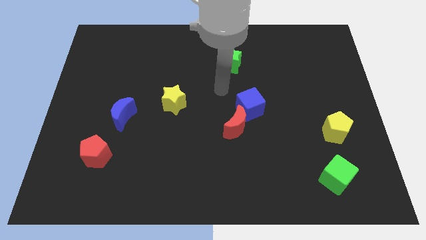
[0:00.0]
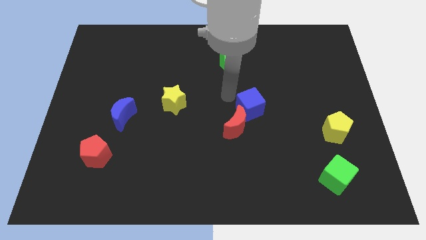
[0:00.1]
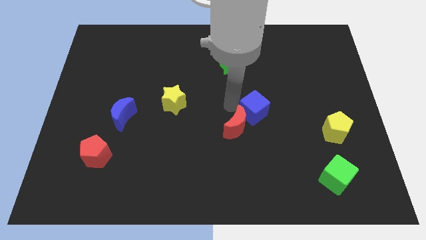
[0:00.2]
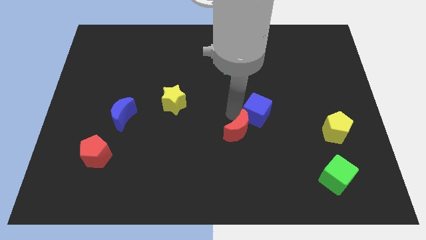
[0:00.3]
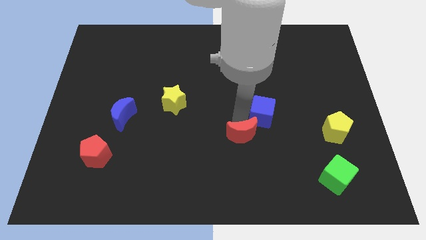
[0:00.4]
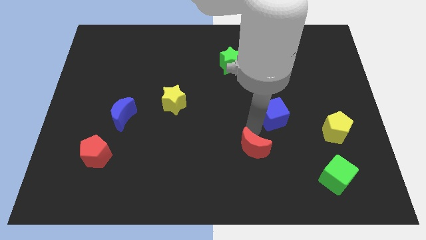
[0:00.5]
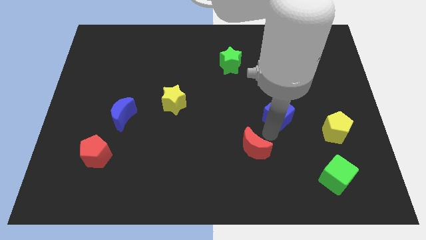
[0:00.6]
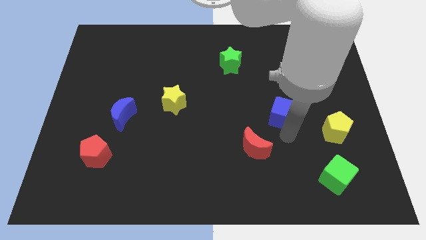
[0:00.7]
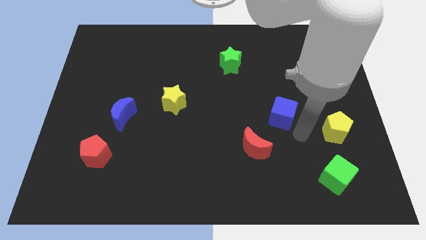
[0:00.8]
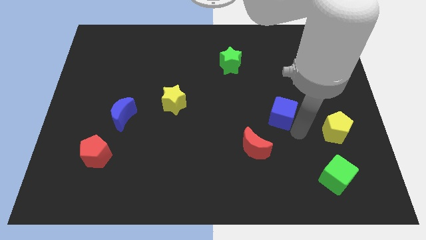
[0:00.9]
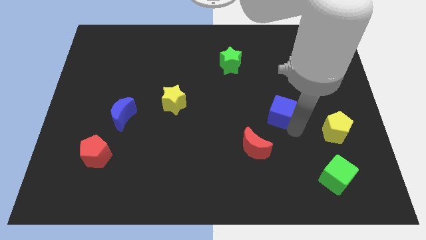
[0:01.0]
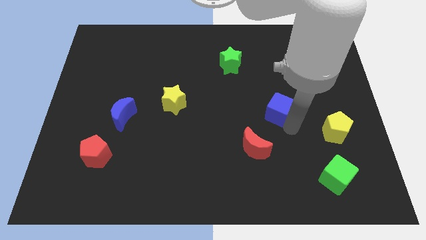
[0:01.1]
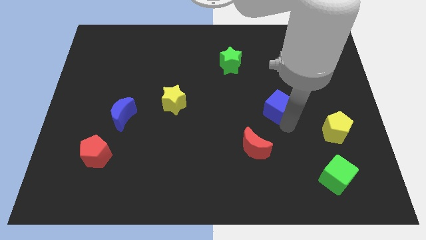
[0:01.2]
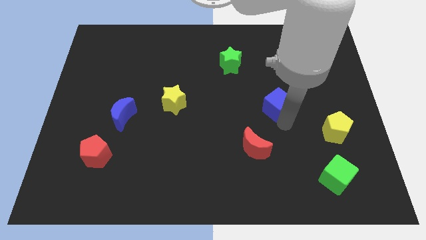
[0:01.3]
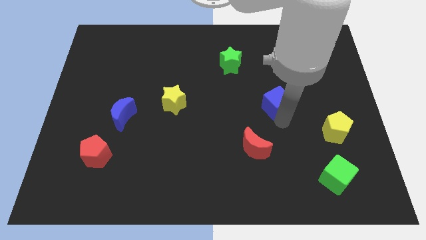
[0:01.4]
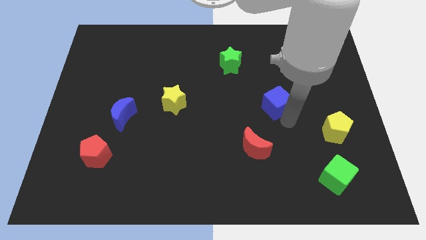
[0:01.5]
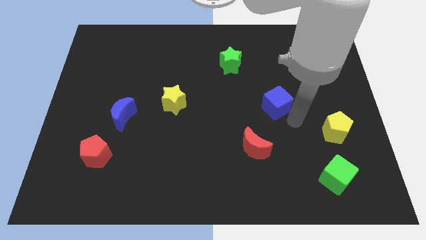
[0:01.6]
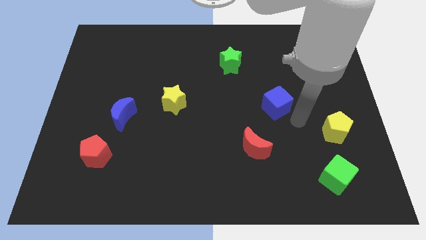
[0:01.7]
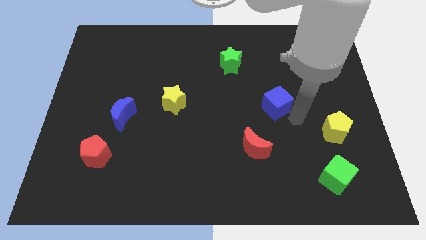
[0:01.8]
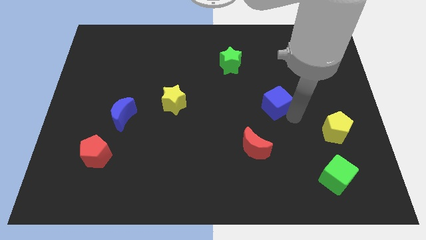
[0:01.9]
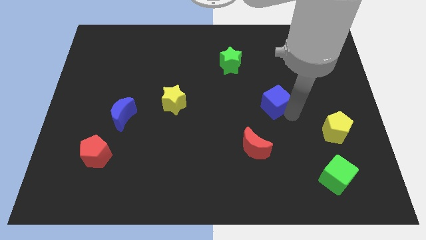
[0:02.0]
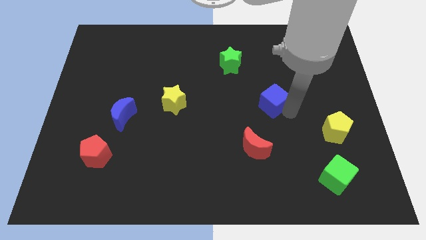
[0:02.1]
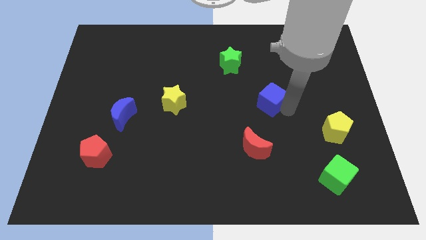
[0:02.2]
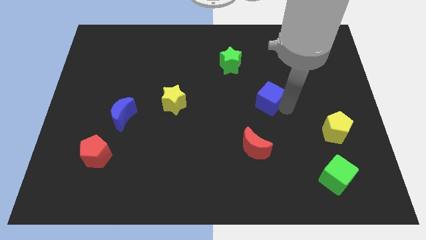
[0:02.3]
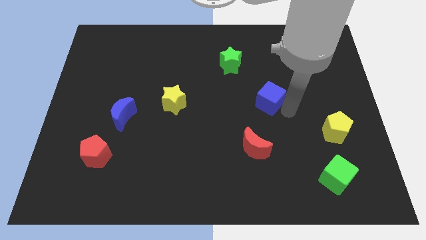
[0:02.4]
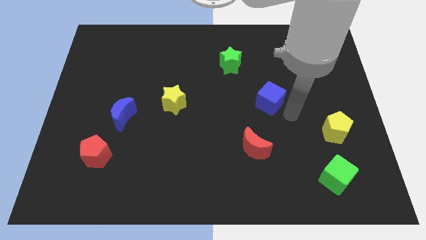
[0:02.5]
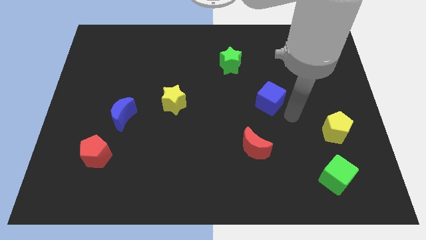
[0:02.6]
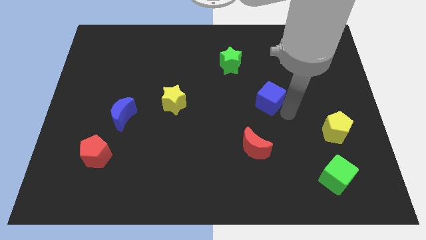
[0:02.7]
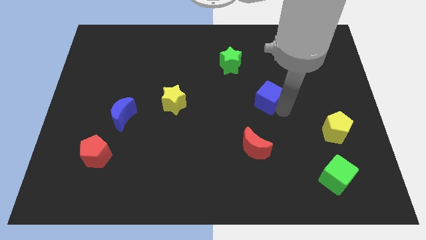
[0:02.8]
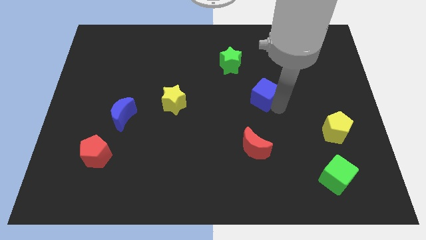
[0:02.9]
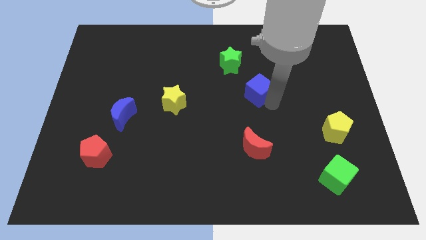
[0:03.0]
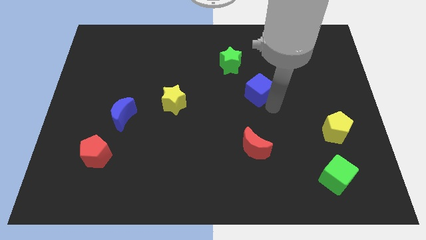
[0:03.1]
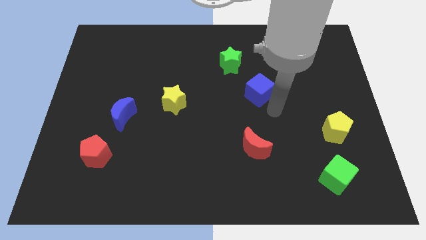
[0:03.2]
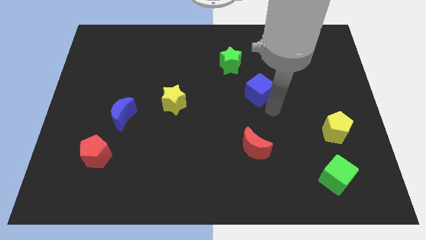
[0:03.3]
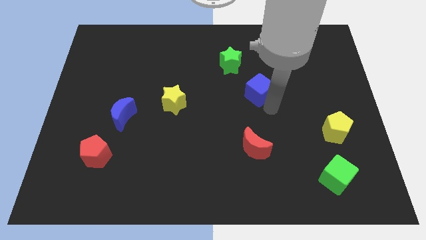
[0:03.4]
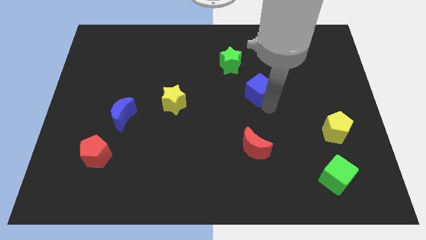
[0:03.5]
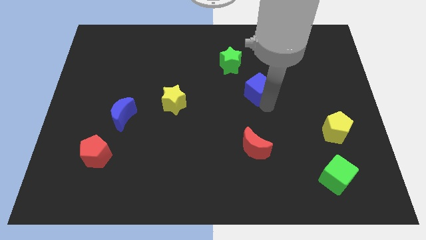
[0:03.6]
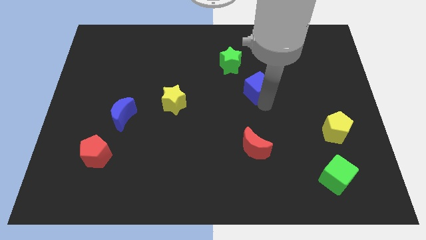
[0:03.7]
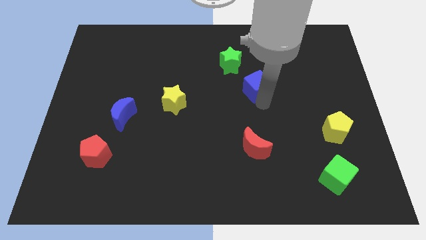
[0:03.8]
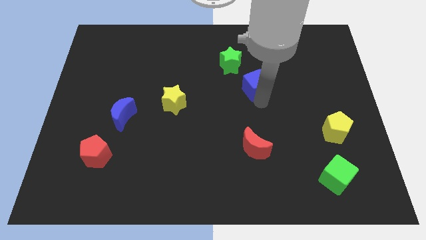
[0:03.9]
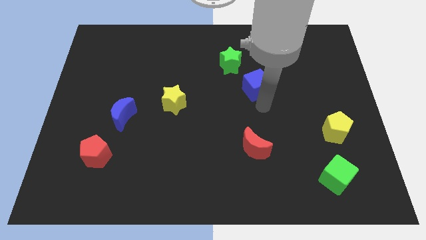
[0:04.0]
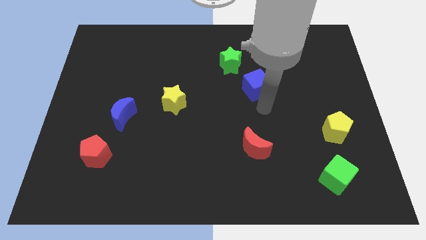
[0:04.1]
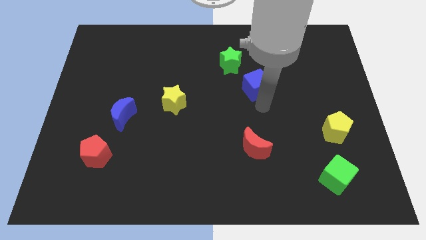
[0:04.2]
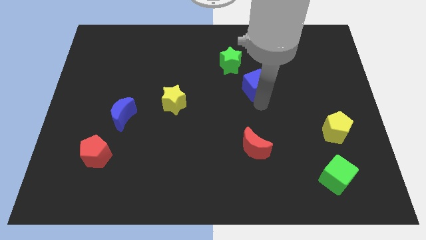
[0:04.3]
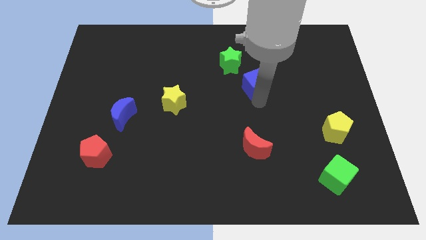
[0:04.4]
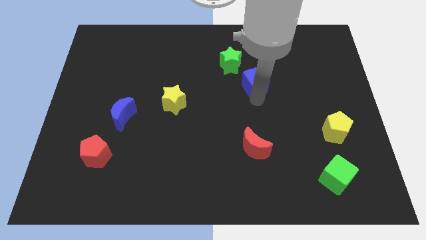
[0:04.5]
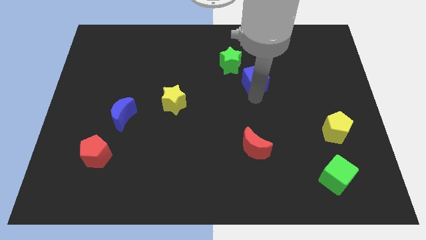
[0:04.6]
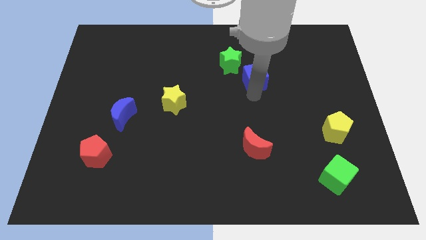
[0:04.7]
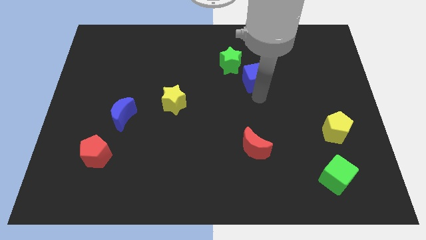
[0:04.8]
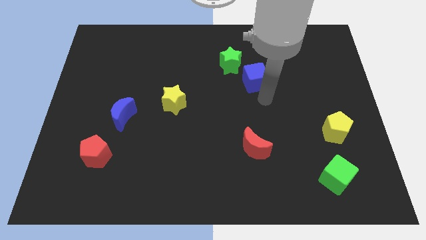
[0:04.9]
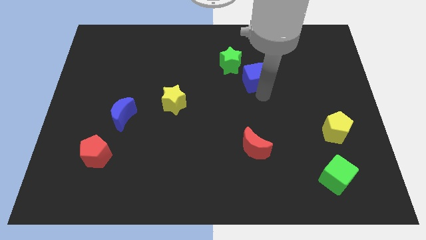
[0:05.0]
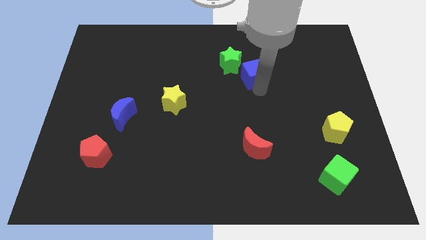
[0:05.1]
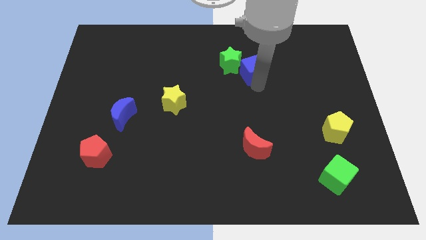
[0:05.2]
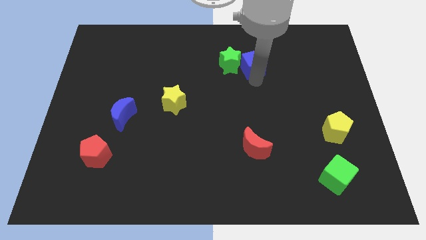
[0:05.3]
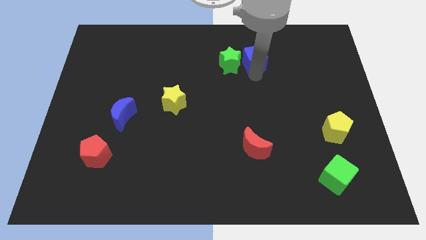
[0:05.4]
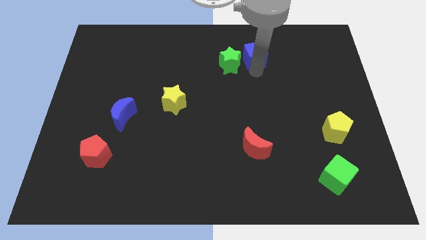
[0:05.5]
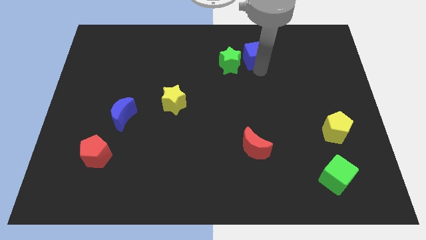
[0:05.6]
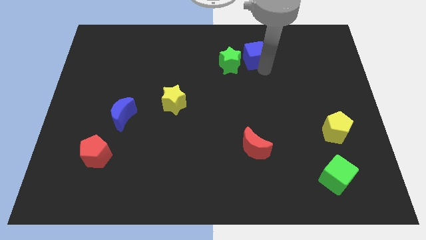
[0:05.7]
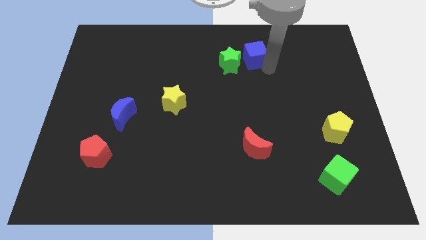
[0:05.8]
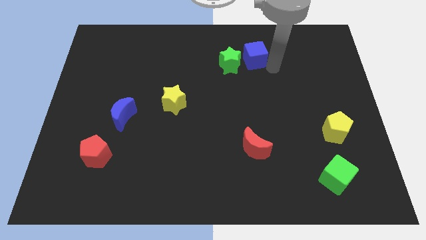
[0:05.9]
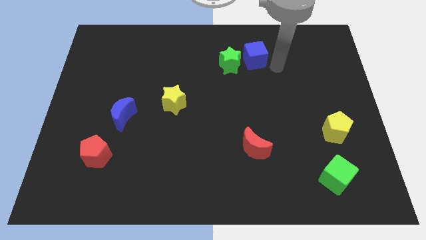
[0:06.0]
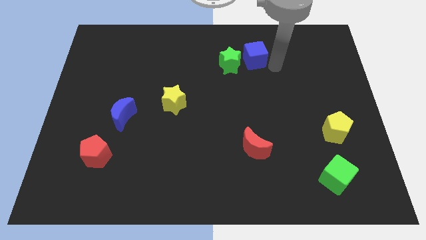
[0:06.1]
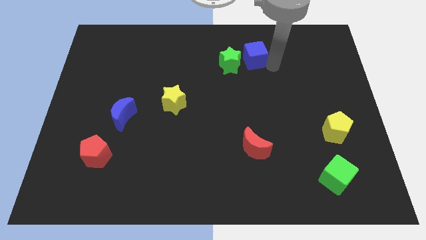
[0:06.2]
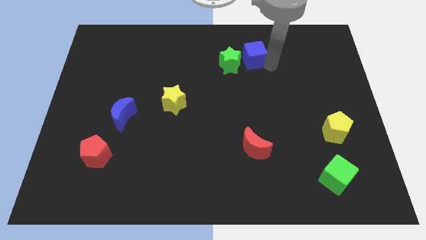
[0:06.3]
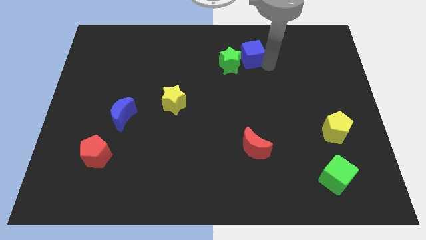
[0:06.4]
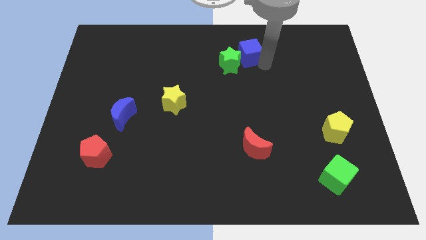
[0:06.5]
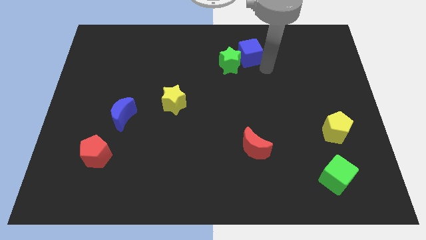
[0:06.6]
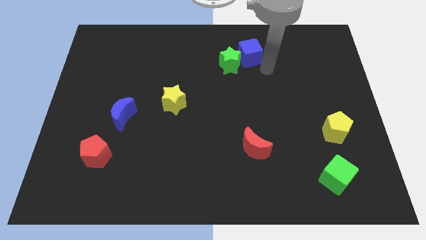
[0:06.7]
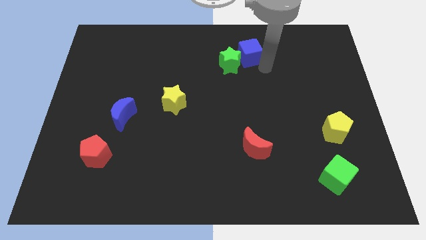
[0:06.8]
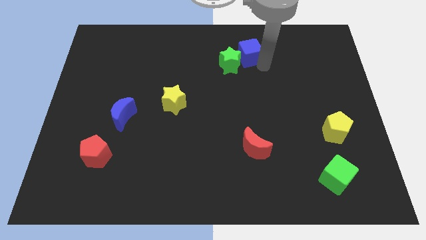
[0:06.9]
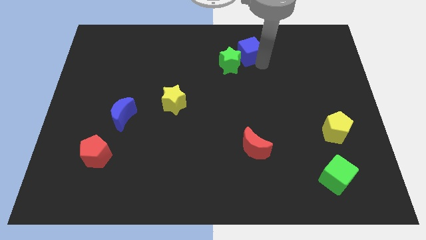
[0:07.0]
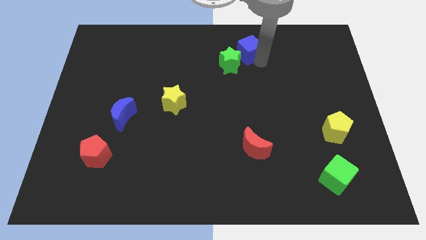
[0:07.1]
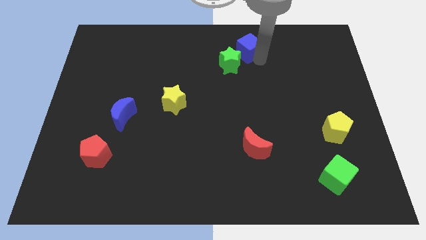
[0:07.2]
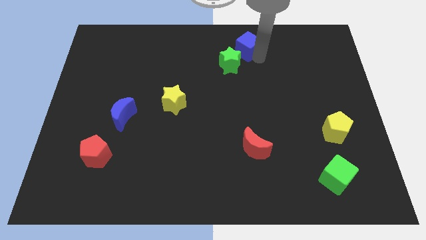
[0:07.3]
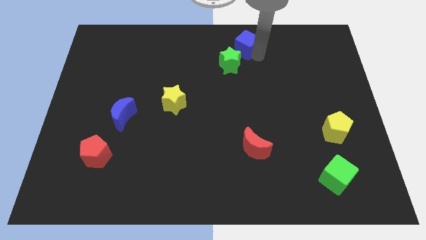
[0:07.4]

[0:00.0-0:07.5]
slide the blue cube to the top
